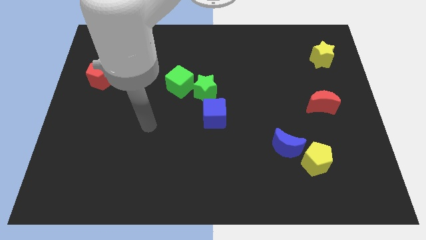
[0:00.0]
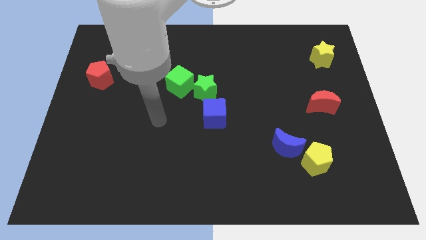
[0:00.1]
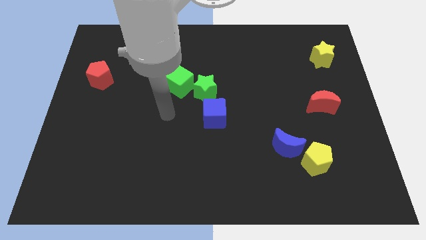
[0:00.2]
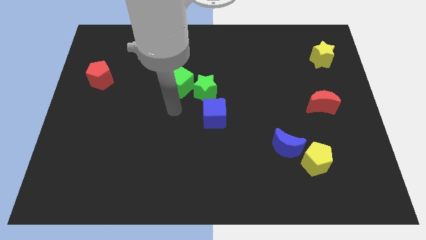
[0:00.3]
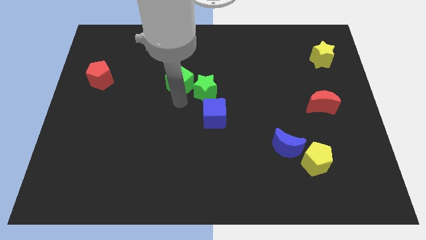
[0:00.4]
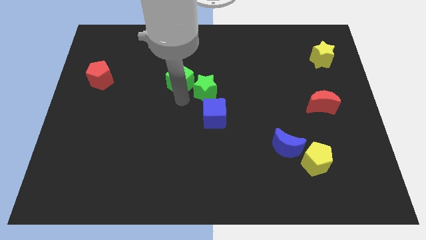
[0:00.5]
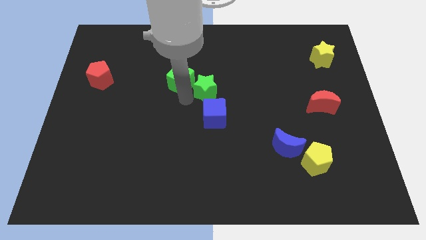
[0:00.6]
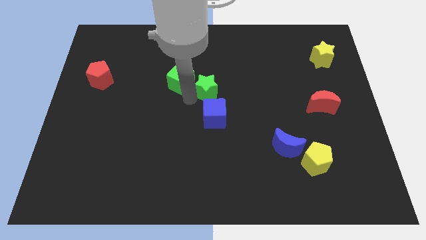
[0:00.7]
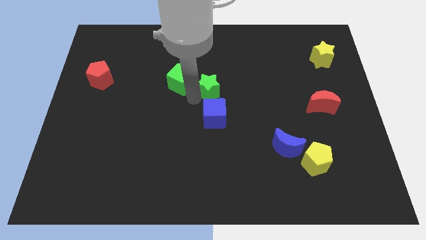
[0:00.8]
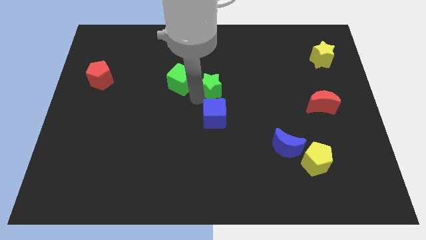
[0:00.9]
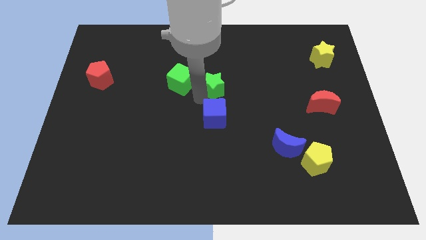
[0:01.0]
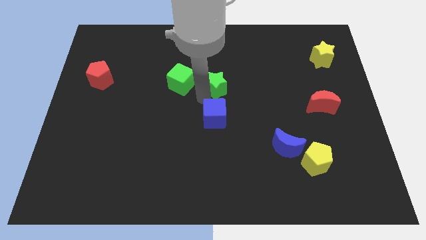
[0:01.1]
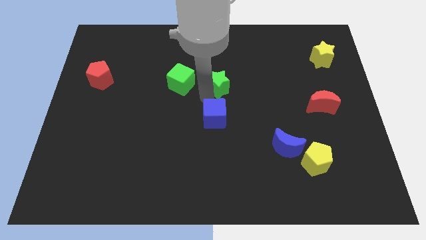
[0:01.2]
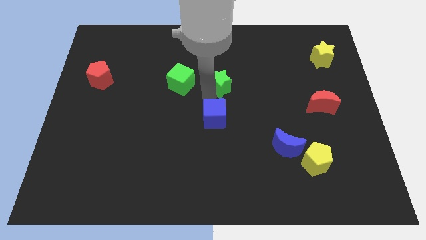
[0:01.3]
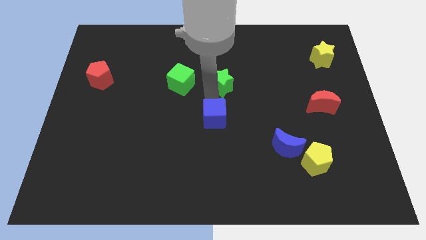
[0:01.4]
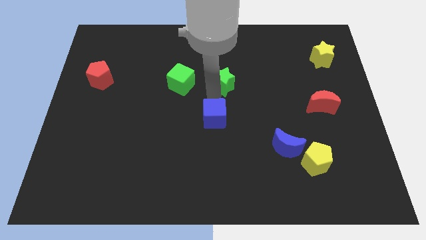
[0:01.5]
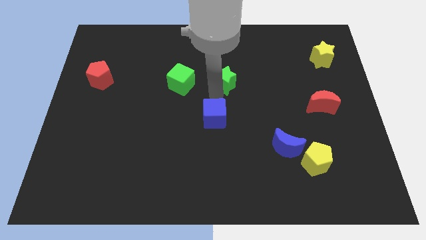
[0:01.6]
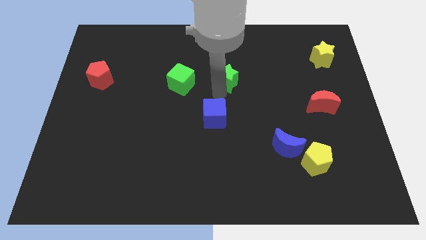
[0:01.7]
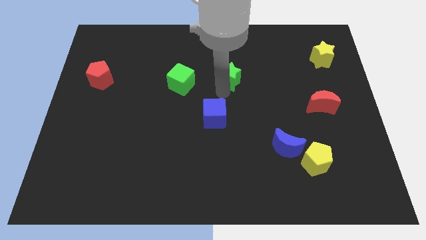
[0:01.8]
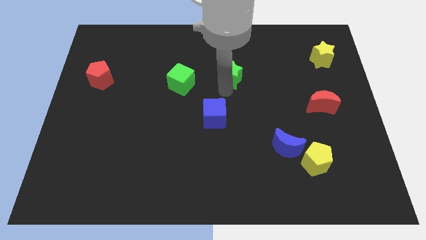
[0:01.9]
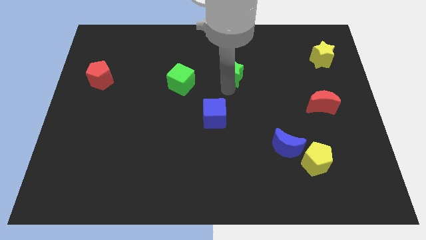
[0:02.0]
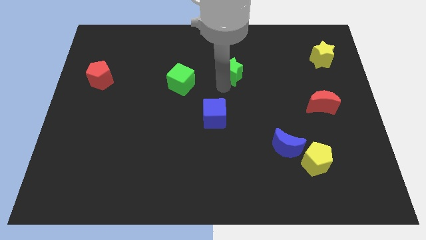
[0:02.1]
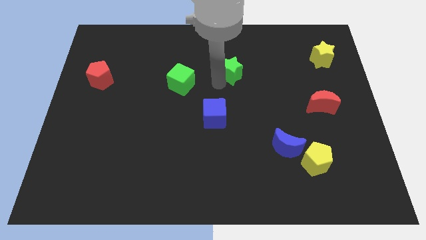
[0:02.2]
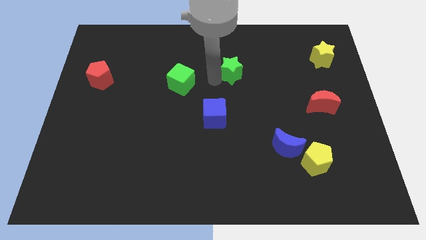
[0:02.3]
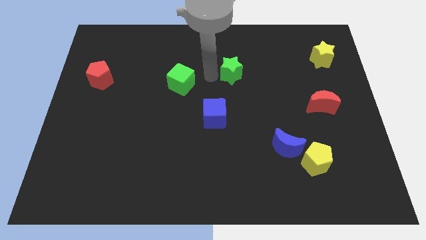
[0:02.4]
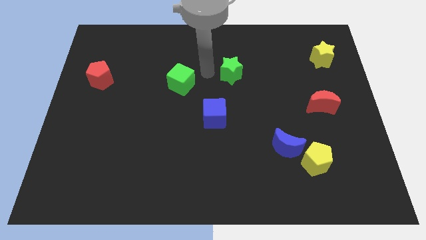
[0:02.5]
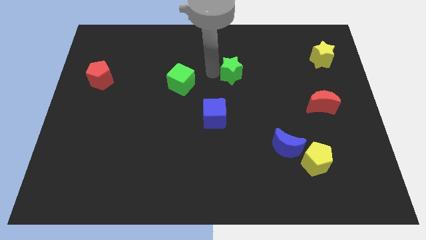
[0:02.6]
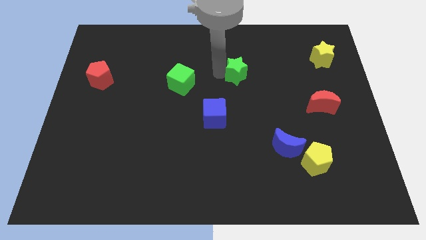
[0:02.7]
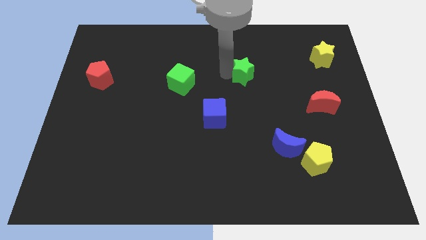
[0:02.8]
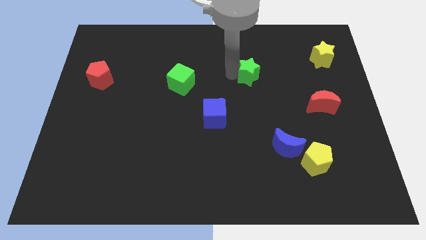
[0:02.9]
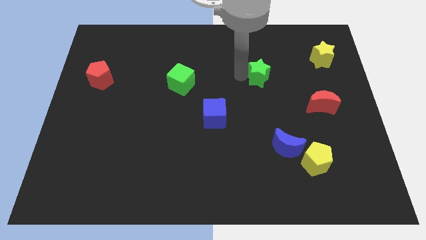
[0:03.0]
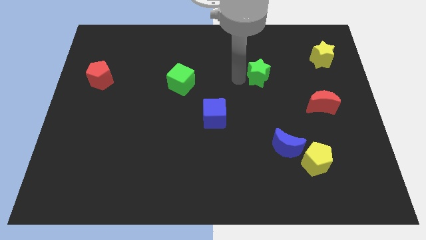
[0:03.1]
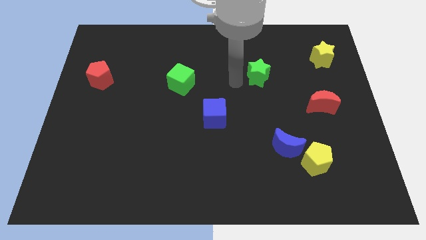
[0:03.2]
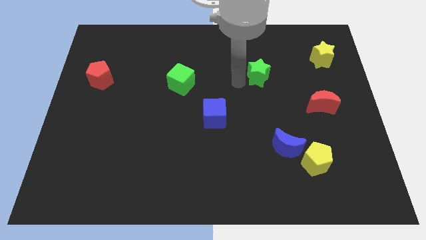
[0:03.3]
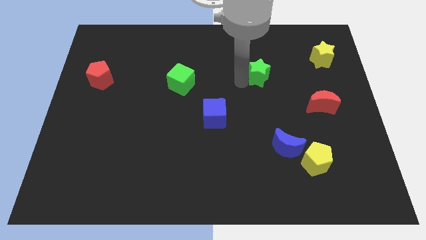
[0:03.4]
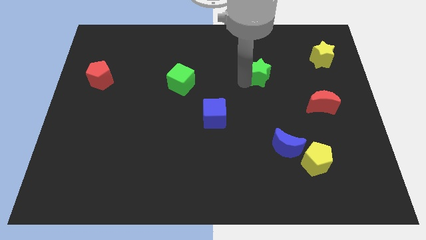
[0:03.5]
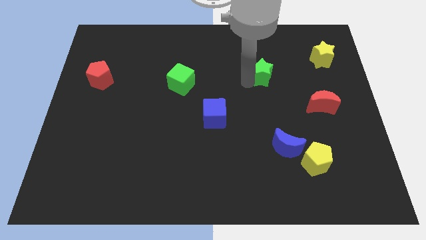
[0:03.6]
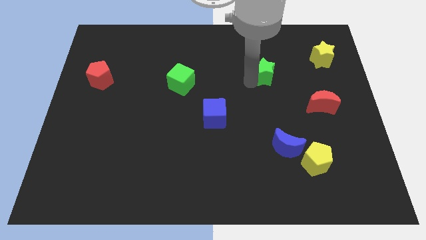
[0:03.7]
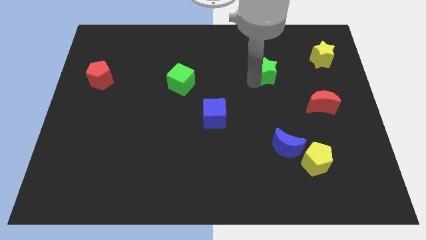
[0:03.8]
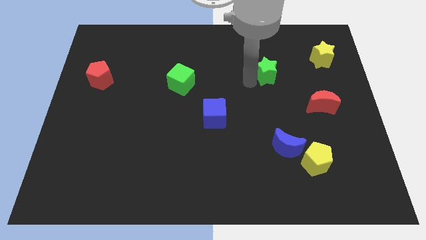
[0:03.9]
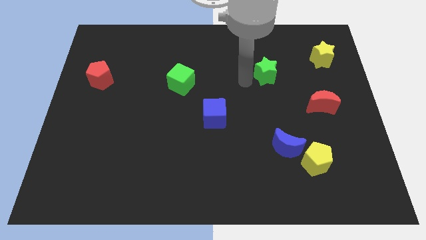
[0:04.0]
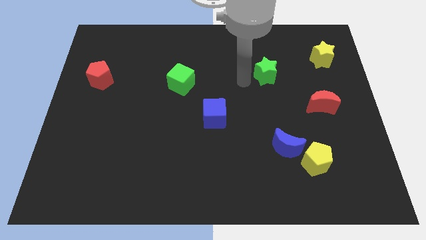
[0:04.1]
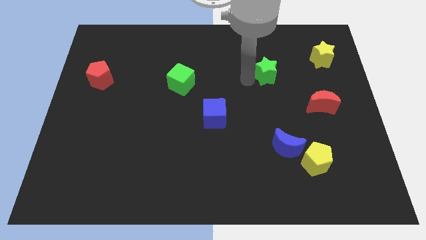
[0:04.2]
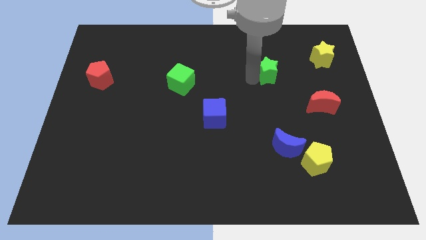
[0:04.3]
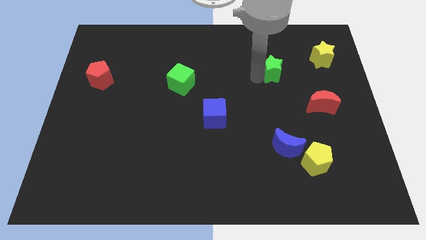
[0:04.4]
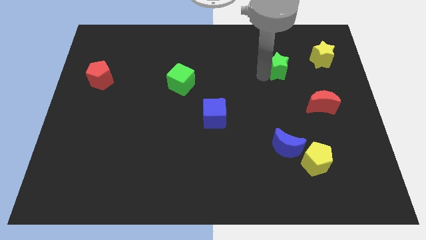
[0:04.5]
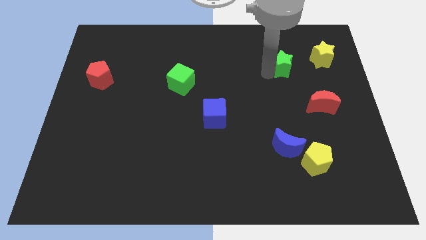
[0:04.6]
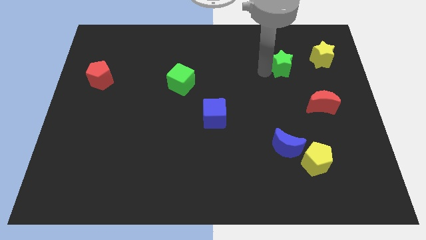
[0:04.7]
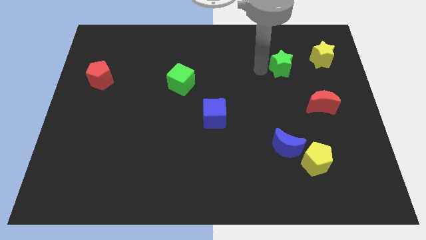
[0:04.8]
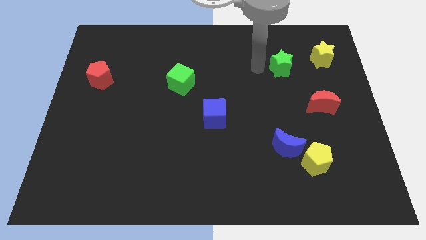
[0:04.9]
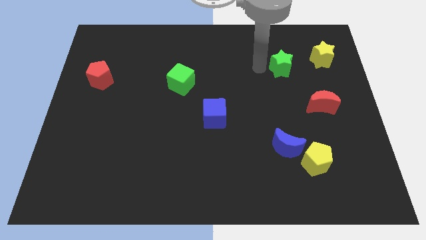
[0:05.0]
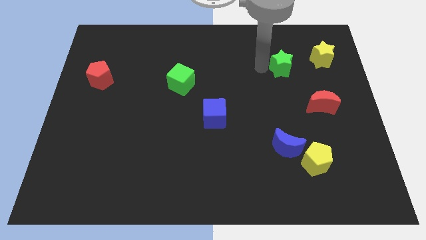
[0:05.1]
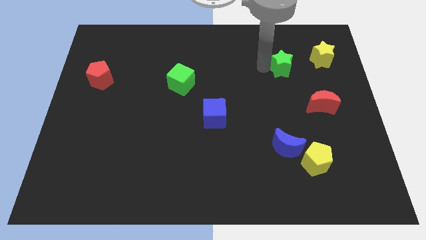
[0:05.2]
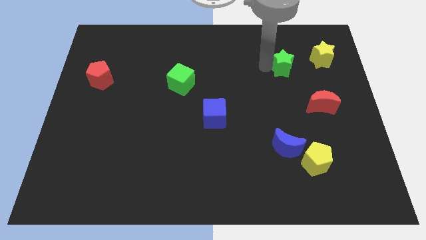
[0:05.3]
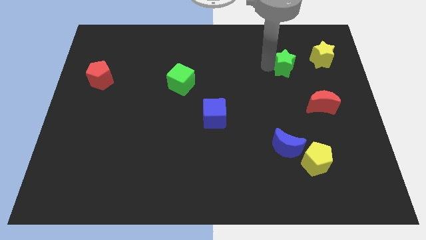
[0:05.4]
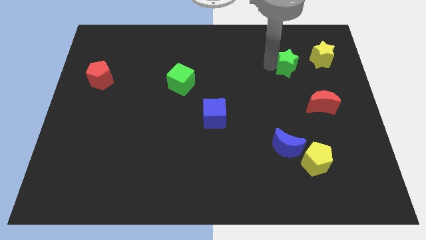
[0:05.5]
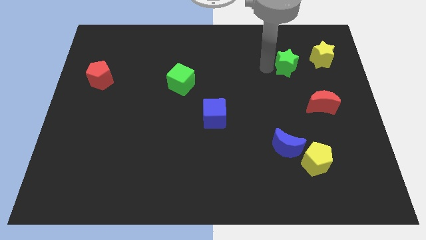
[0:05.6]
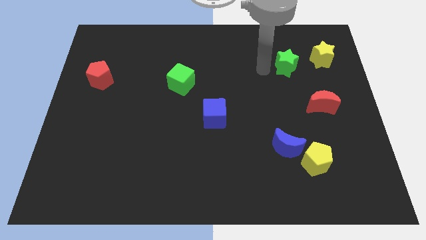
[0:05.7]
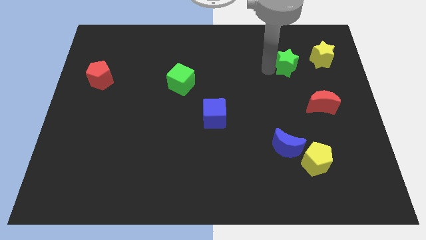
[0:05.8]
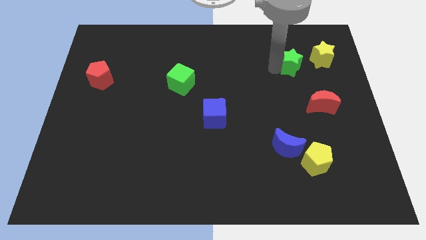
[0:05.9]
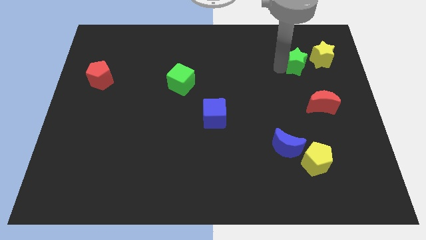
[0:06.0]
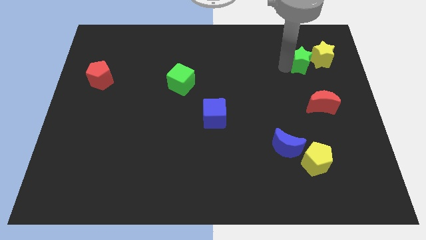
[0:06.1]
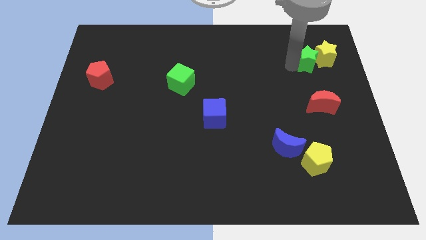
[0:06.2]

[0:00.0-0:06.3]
slide the green star next to the yellow star

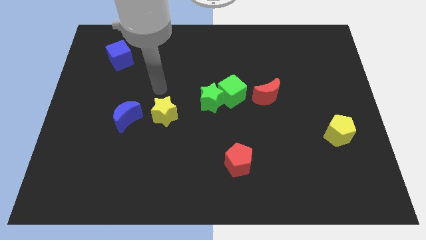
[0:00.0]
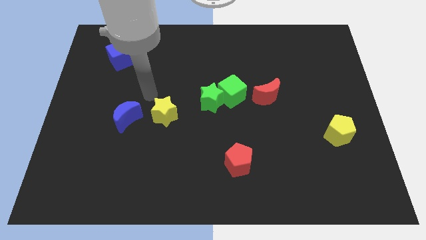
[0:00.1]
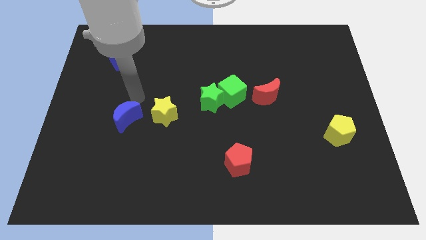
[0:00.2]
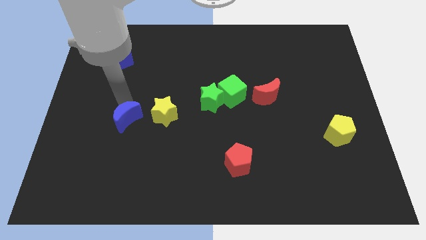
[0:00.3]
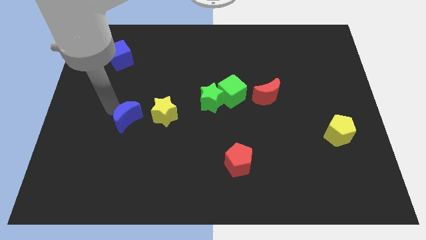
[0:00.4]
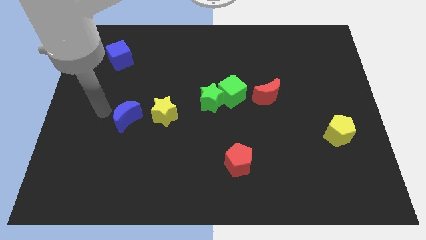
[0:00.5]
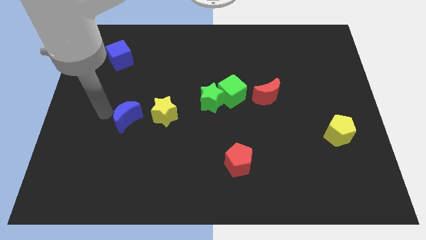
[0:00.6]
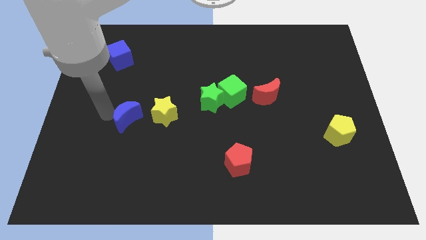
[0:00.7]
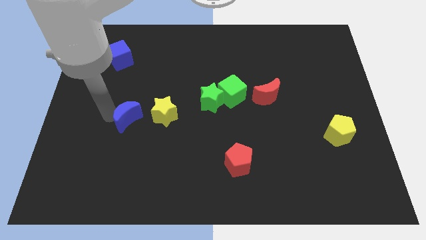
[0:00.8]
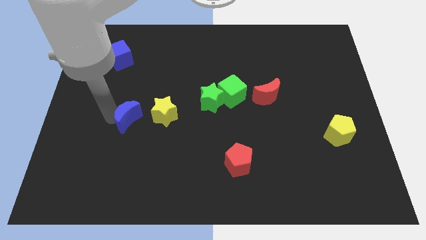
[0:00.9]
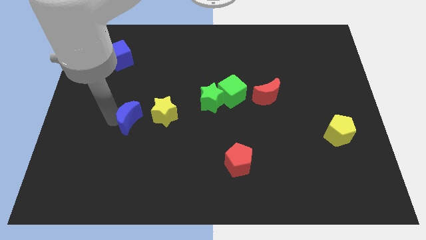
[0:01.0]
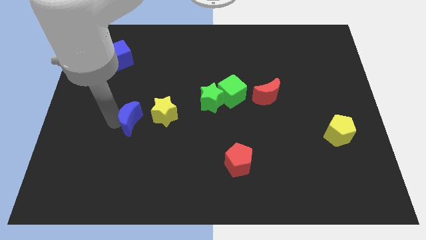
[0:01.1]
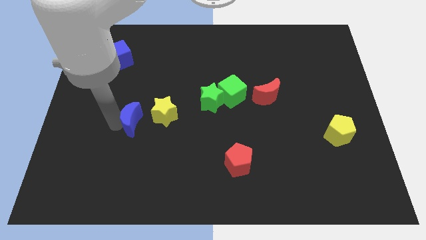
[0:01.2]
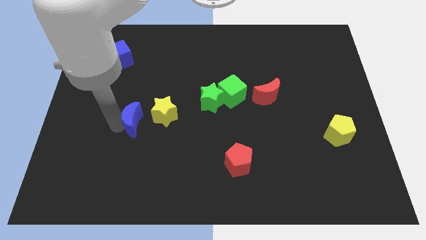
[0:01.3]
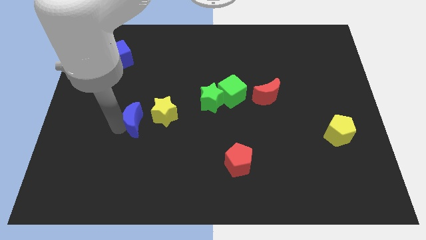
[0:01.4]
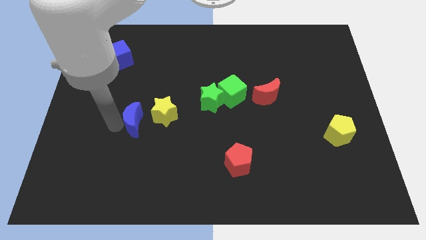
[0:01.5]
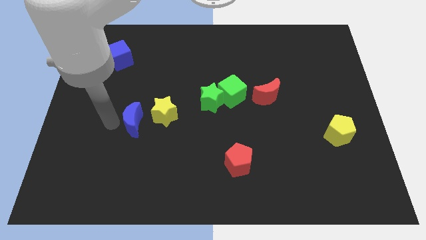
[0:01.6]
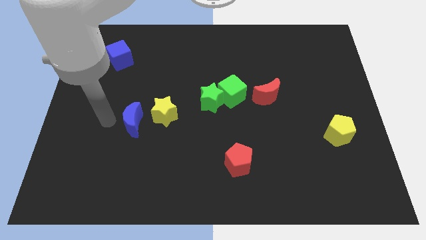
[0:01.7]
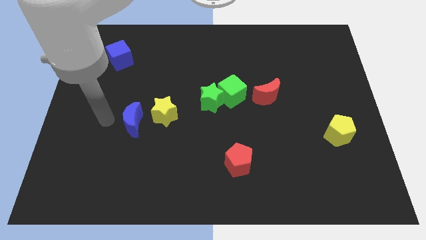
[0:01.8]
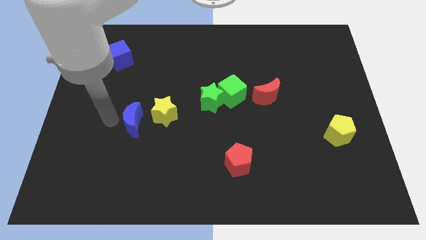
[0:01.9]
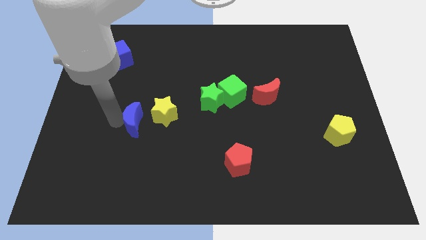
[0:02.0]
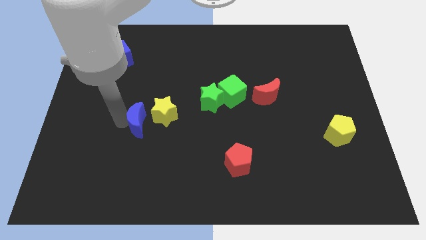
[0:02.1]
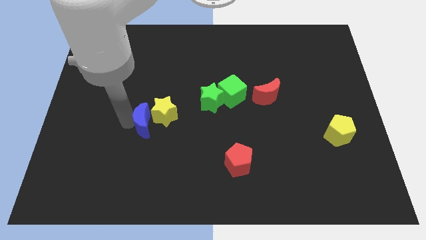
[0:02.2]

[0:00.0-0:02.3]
slide the blue moon towards the yellow star
